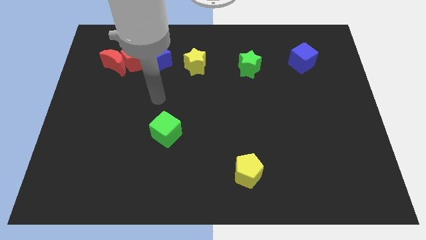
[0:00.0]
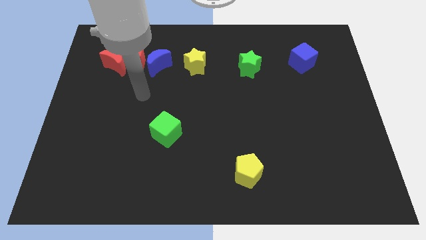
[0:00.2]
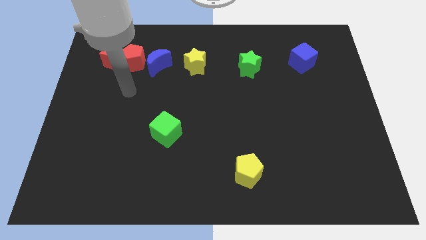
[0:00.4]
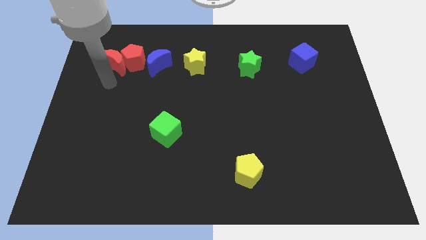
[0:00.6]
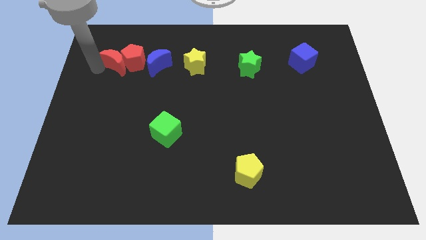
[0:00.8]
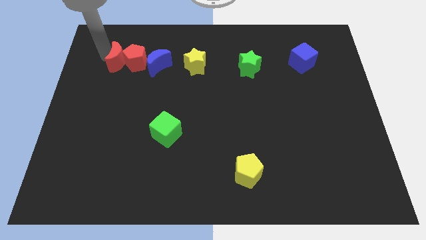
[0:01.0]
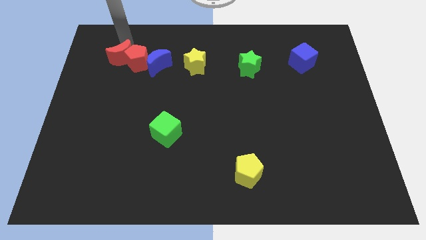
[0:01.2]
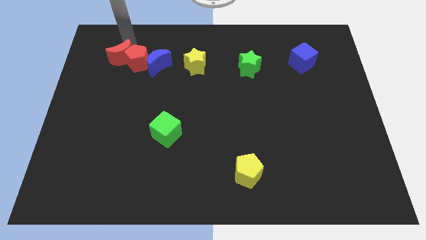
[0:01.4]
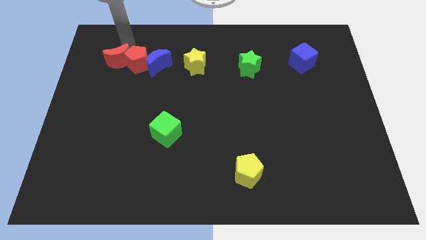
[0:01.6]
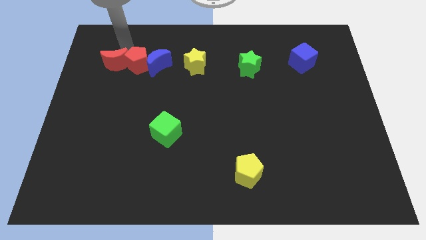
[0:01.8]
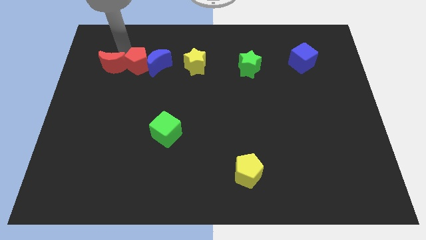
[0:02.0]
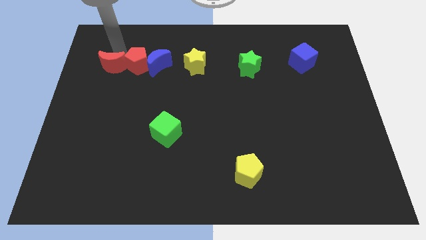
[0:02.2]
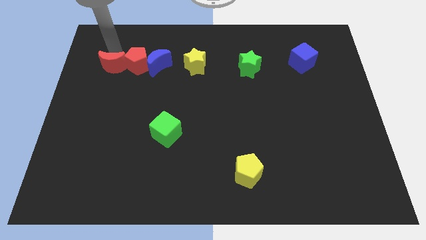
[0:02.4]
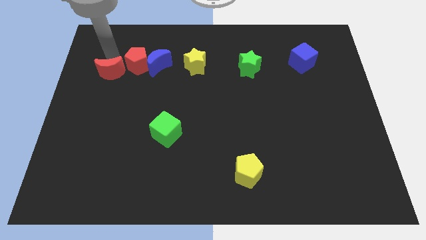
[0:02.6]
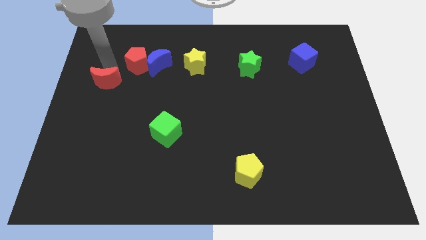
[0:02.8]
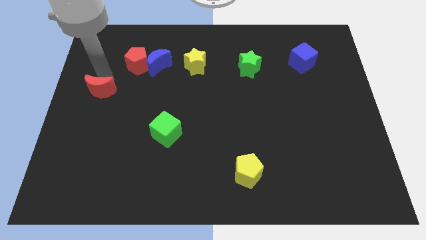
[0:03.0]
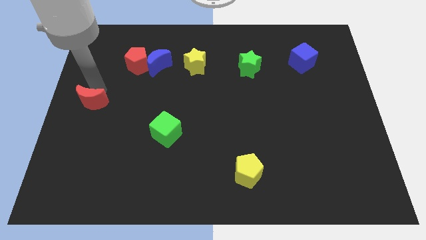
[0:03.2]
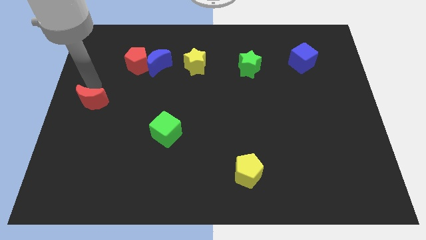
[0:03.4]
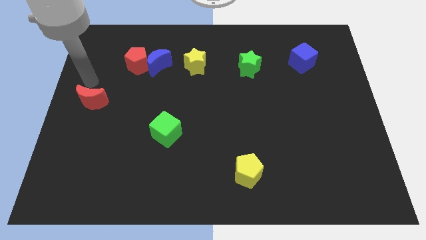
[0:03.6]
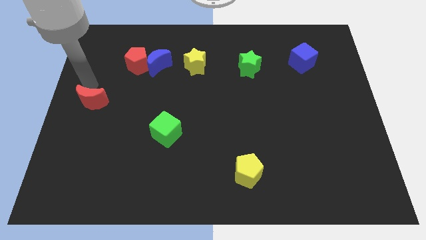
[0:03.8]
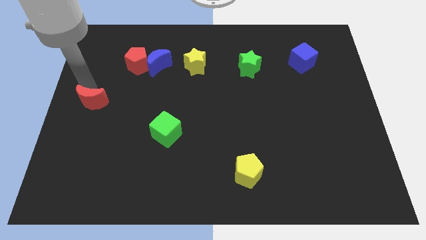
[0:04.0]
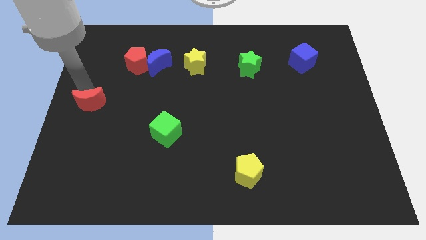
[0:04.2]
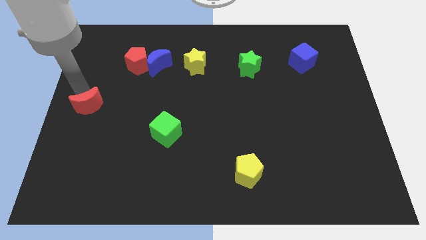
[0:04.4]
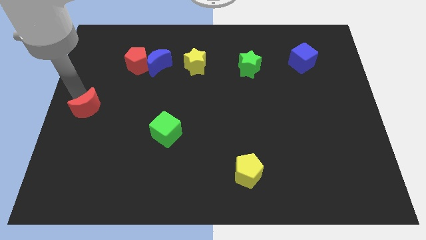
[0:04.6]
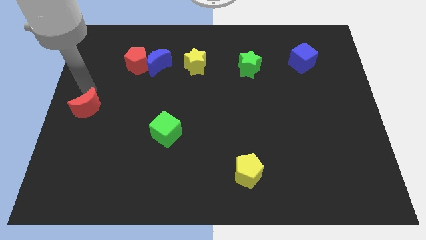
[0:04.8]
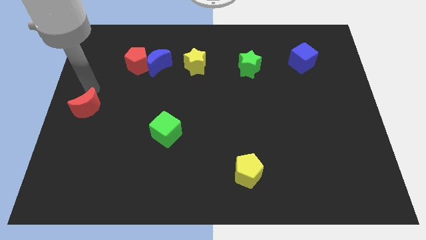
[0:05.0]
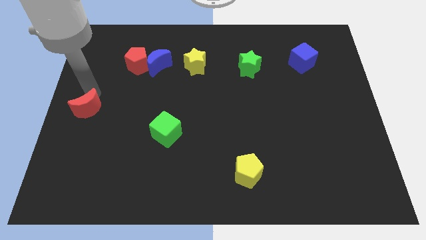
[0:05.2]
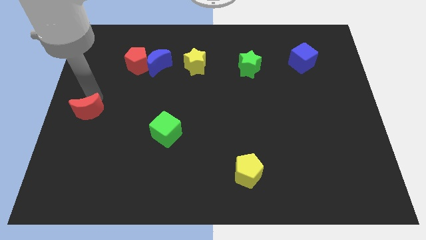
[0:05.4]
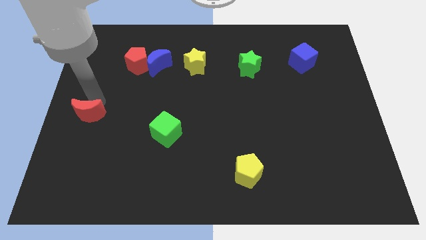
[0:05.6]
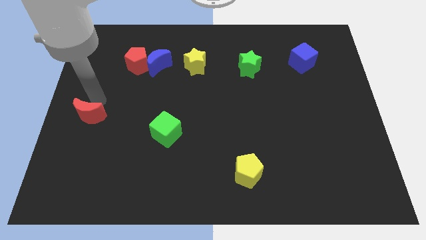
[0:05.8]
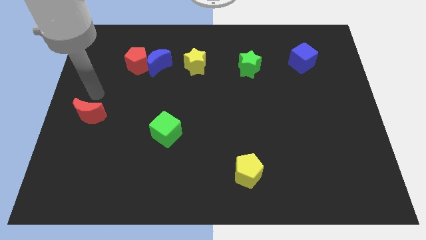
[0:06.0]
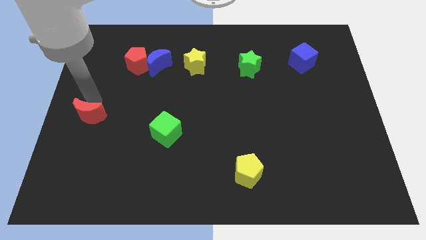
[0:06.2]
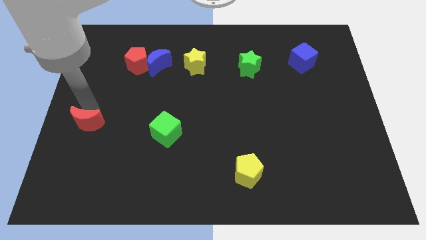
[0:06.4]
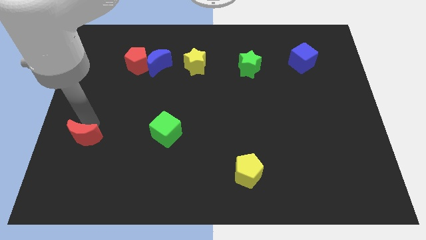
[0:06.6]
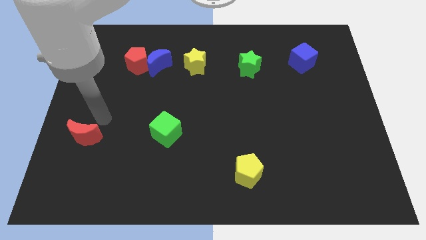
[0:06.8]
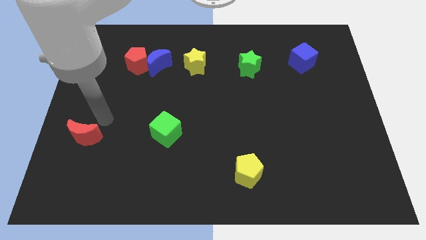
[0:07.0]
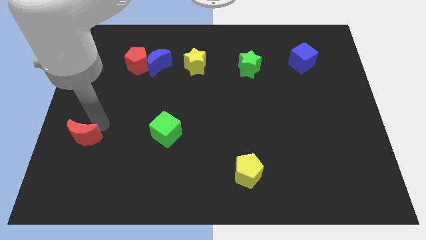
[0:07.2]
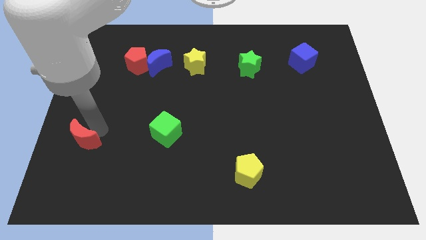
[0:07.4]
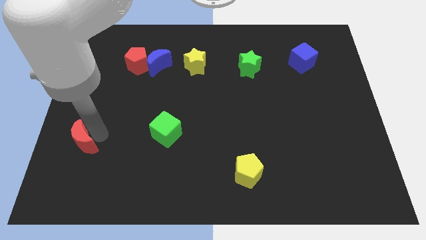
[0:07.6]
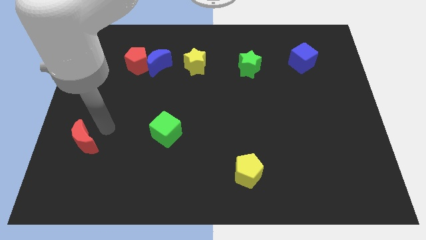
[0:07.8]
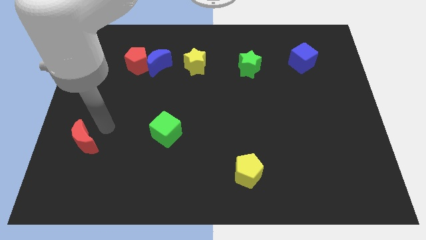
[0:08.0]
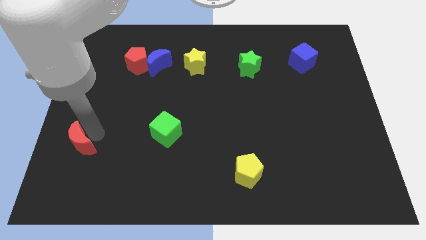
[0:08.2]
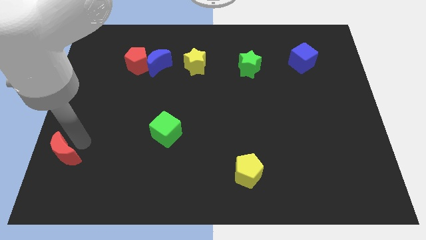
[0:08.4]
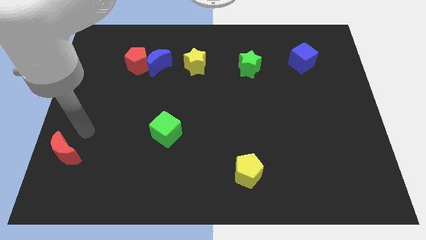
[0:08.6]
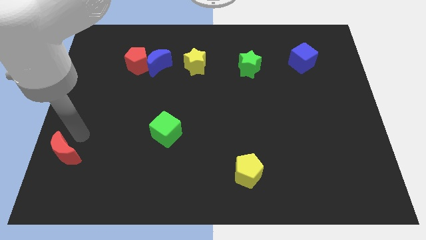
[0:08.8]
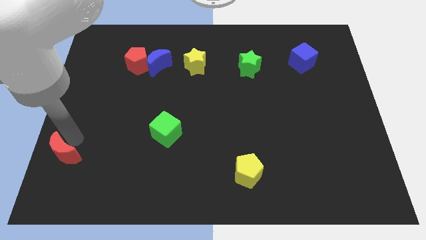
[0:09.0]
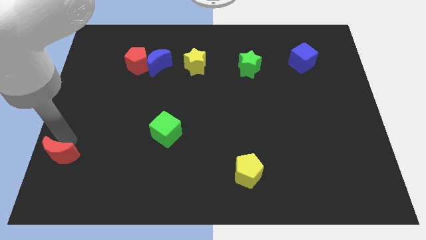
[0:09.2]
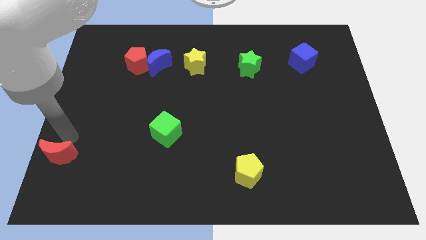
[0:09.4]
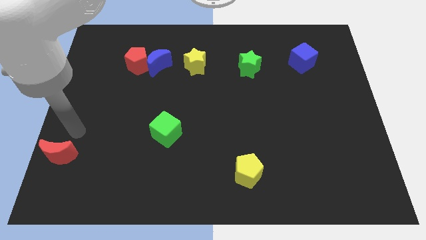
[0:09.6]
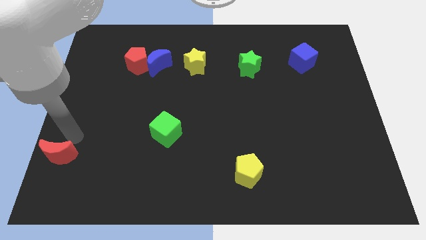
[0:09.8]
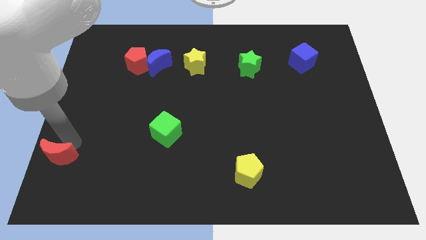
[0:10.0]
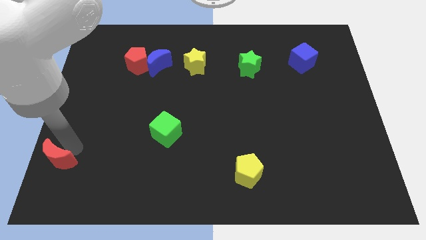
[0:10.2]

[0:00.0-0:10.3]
move the red moon to the bottom left

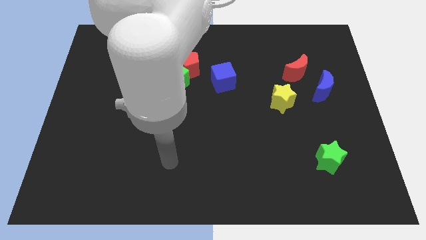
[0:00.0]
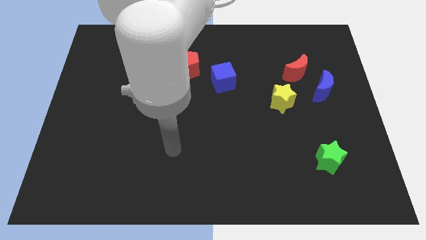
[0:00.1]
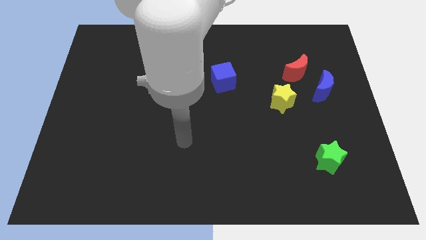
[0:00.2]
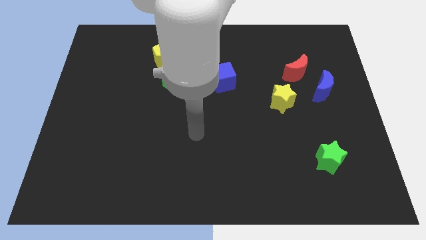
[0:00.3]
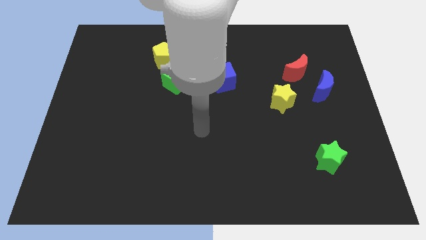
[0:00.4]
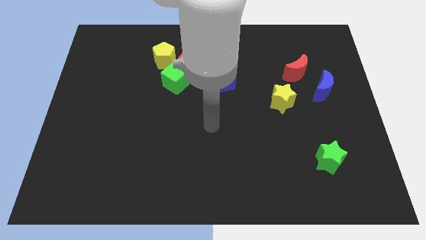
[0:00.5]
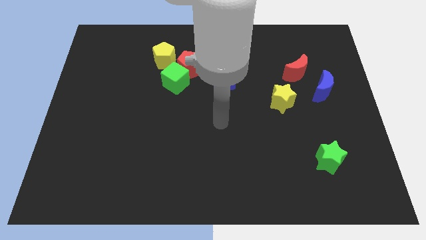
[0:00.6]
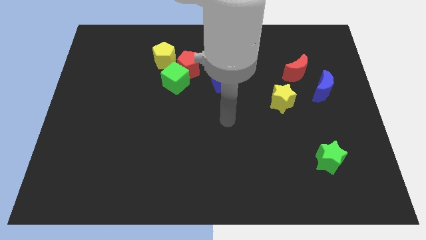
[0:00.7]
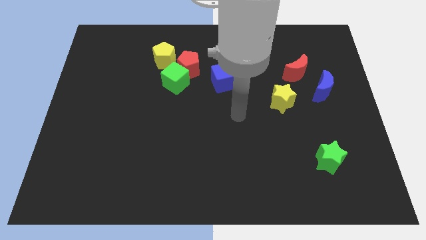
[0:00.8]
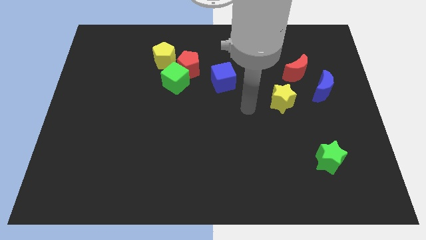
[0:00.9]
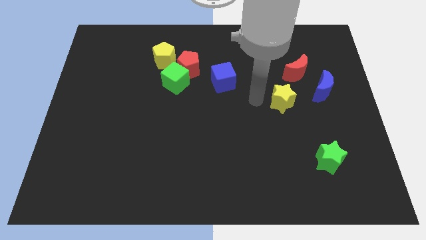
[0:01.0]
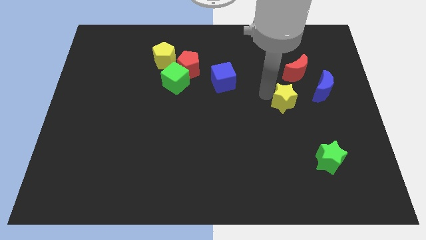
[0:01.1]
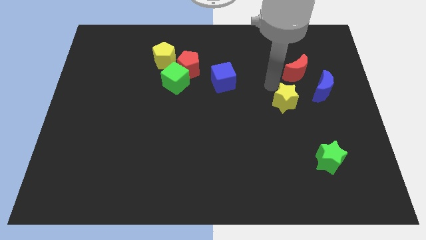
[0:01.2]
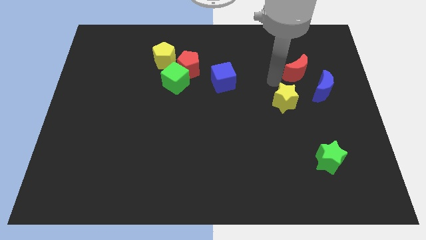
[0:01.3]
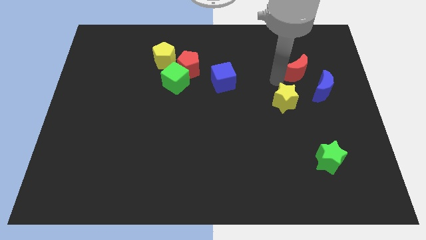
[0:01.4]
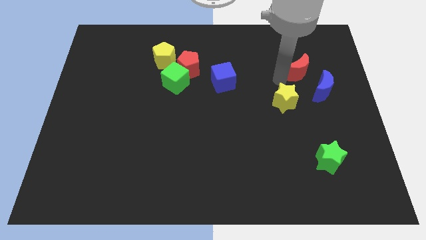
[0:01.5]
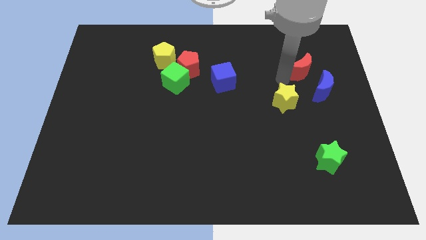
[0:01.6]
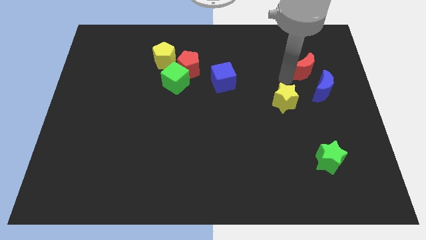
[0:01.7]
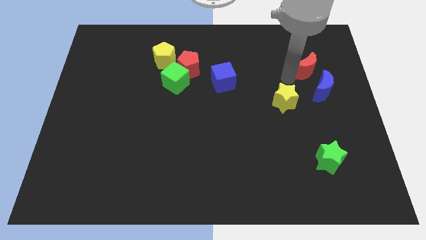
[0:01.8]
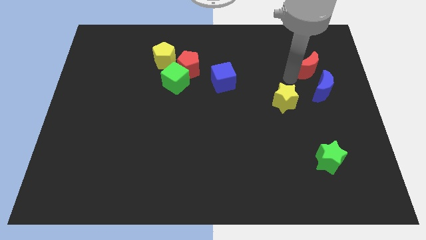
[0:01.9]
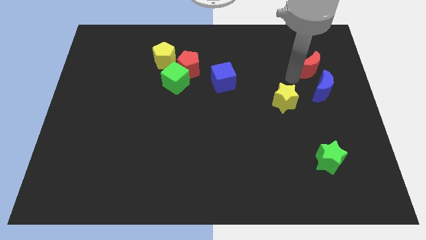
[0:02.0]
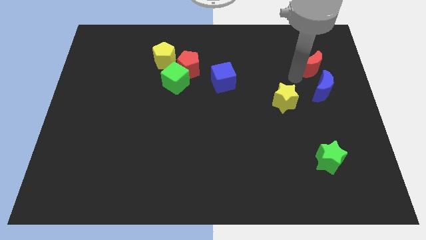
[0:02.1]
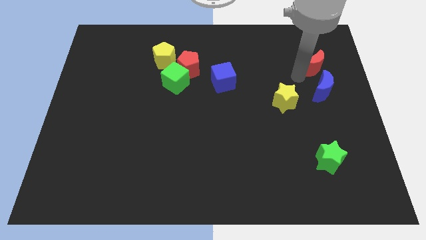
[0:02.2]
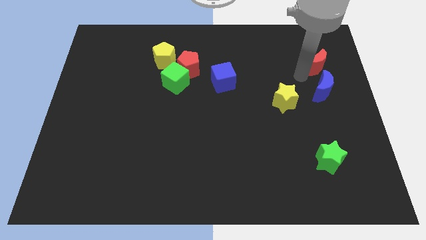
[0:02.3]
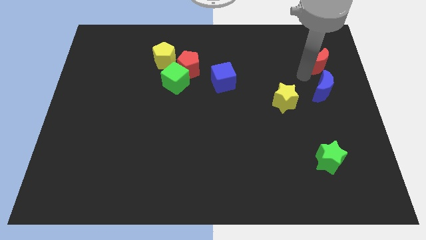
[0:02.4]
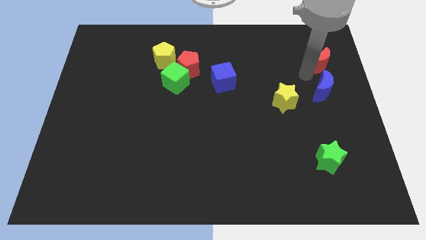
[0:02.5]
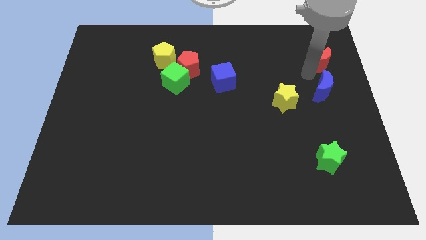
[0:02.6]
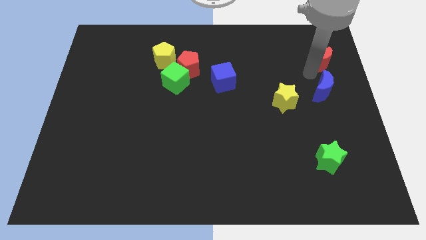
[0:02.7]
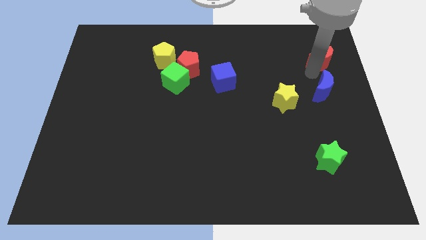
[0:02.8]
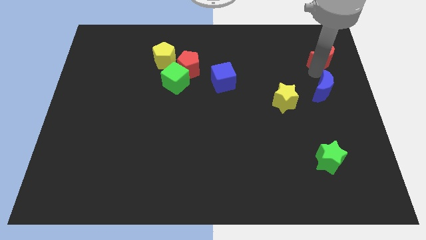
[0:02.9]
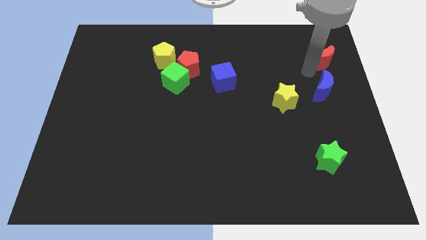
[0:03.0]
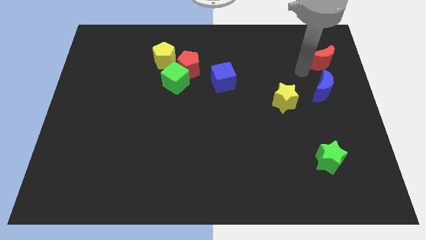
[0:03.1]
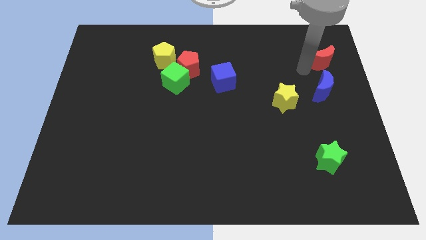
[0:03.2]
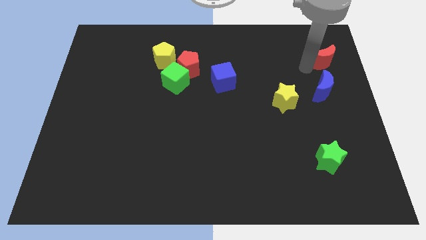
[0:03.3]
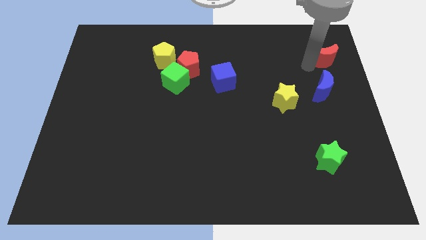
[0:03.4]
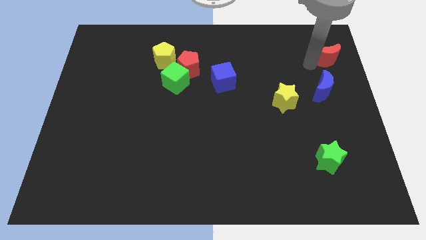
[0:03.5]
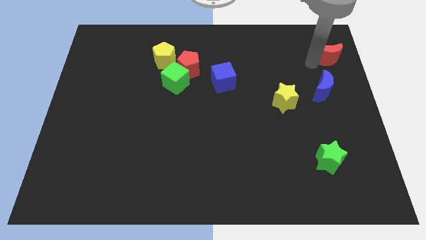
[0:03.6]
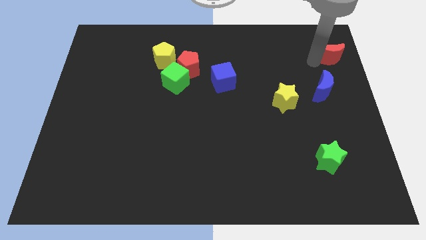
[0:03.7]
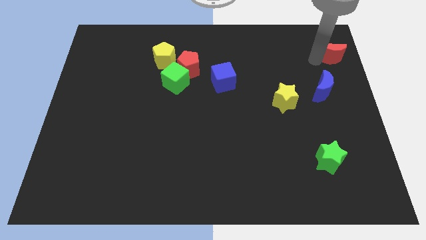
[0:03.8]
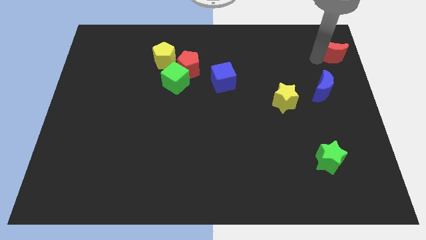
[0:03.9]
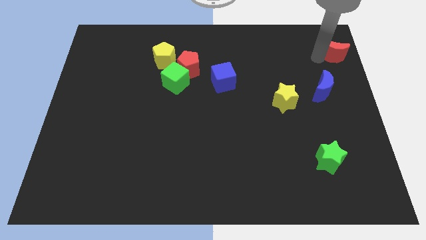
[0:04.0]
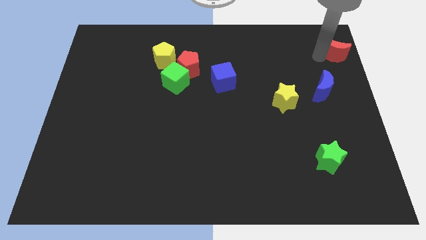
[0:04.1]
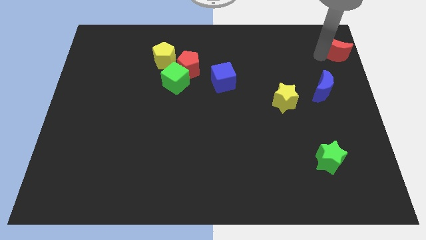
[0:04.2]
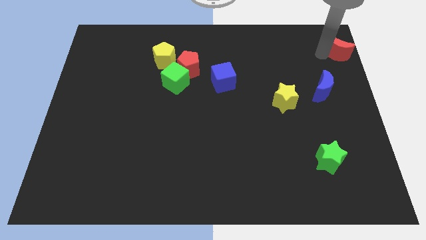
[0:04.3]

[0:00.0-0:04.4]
slide the red moon to the top right of the board
